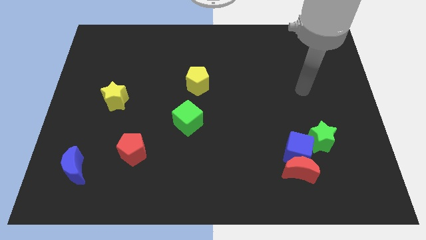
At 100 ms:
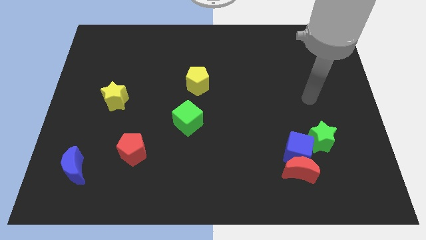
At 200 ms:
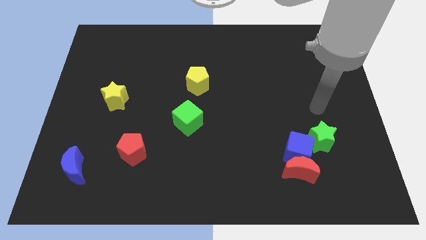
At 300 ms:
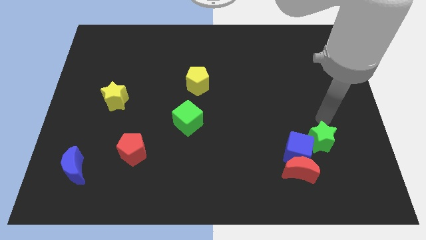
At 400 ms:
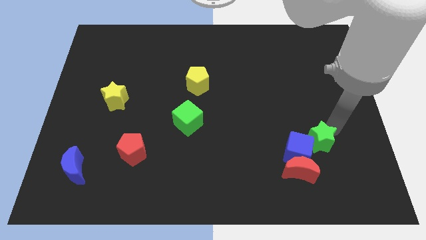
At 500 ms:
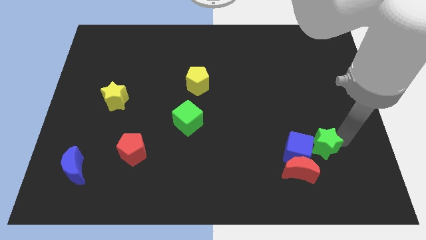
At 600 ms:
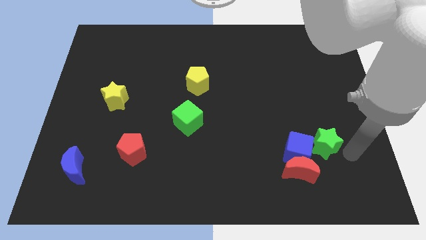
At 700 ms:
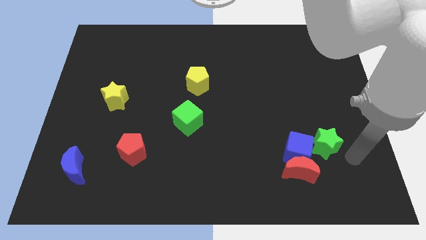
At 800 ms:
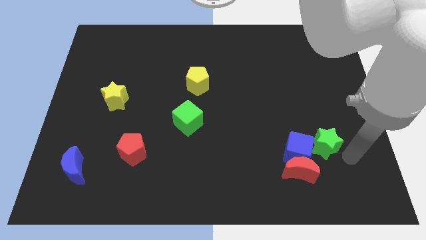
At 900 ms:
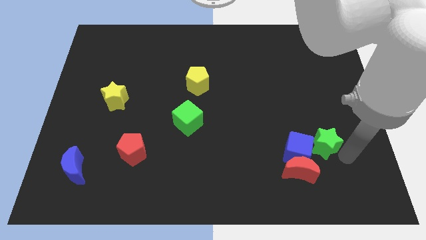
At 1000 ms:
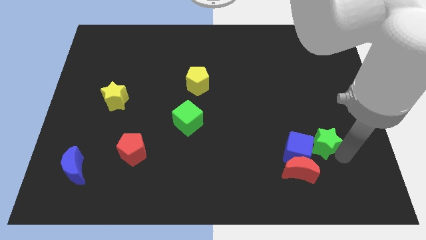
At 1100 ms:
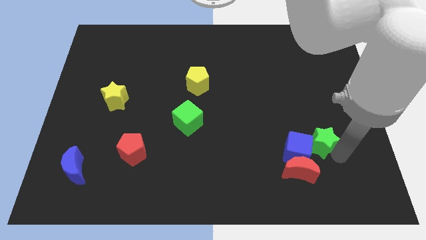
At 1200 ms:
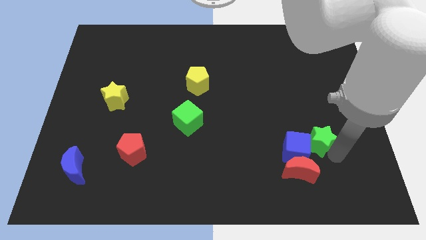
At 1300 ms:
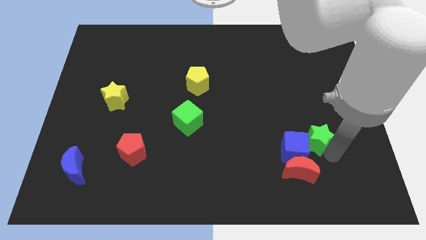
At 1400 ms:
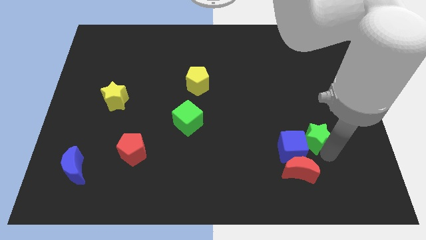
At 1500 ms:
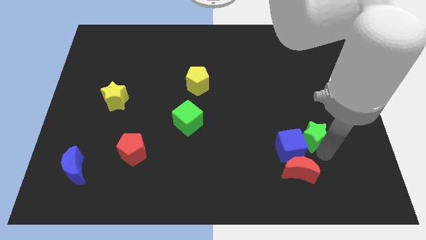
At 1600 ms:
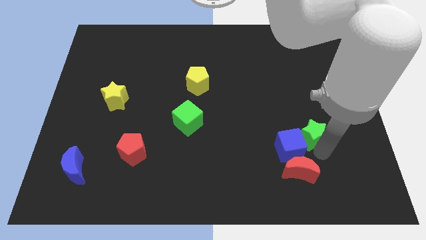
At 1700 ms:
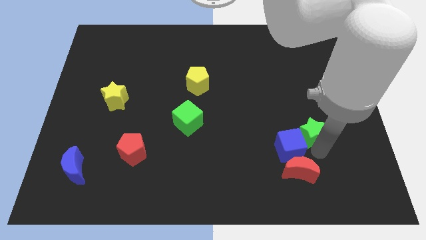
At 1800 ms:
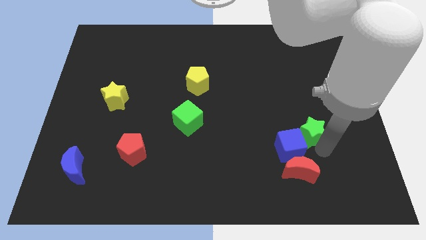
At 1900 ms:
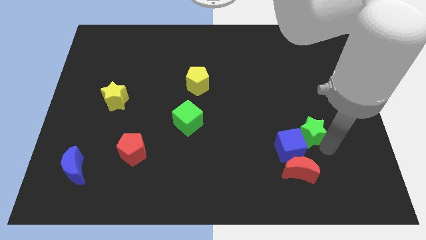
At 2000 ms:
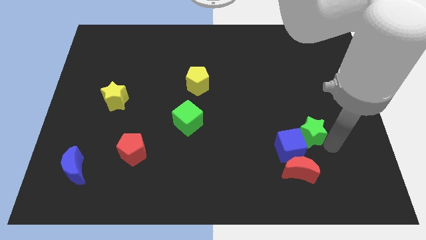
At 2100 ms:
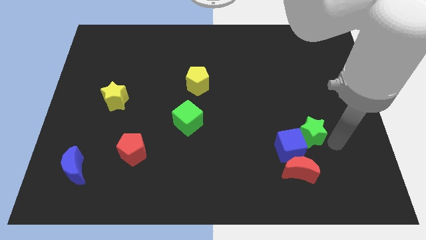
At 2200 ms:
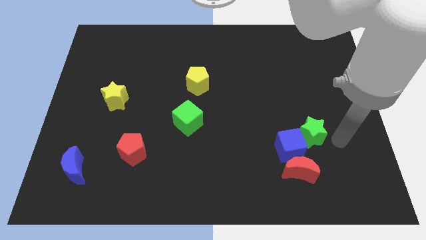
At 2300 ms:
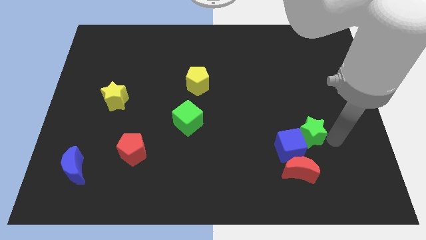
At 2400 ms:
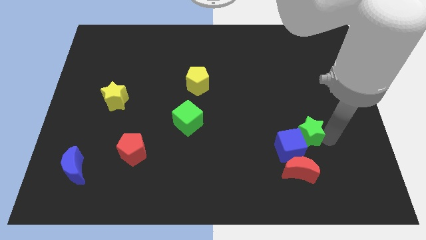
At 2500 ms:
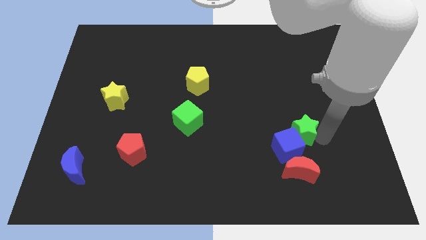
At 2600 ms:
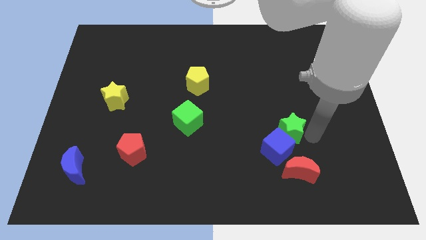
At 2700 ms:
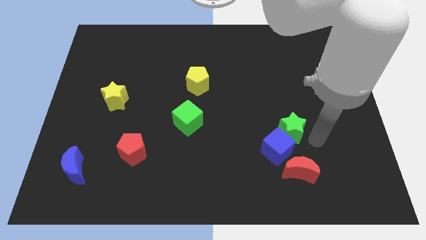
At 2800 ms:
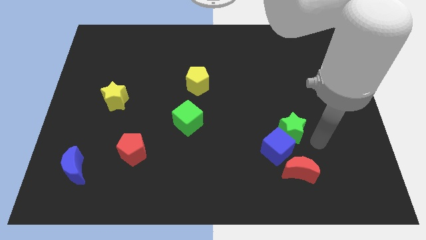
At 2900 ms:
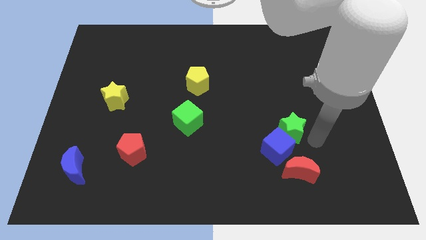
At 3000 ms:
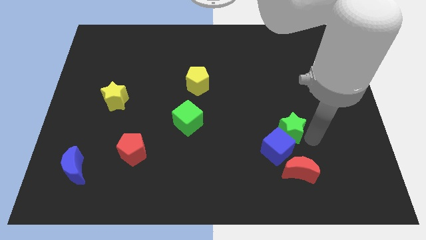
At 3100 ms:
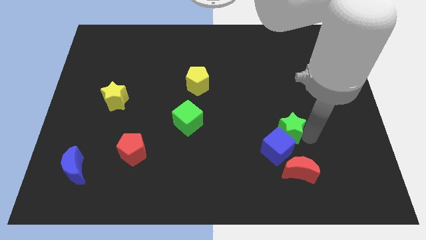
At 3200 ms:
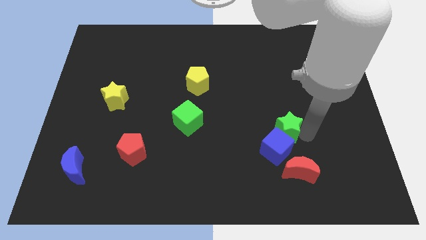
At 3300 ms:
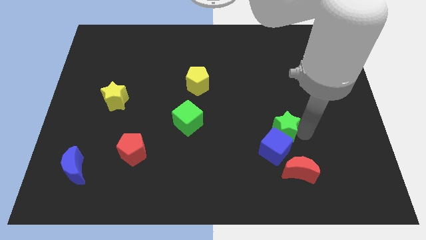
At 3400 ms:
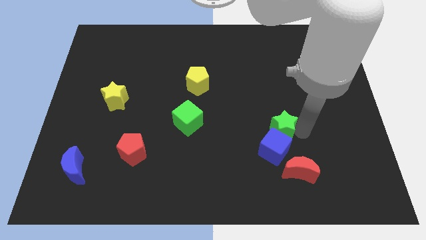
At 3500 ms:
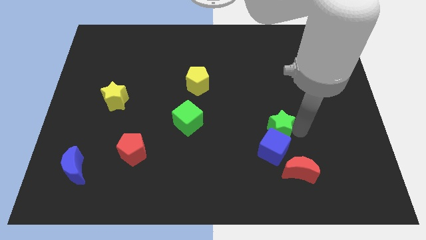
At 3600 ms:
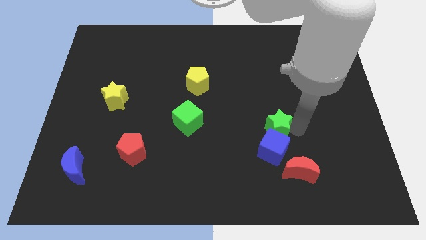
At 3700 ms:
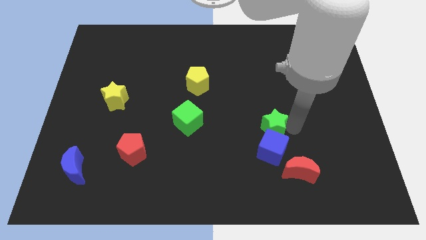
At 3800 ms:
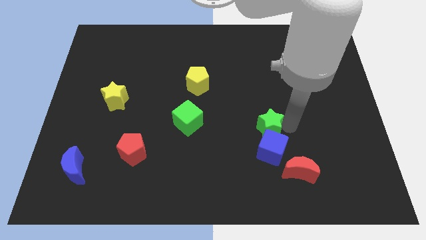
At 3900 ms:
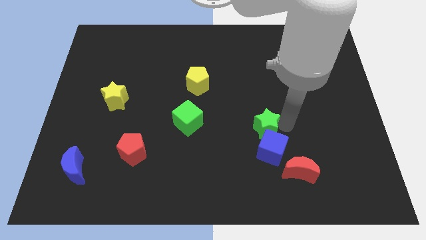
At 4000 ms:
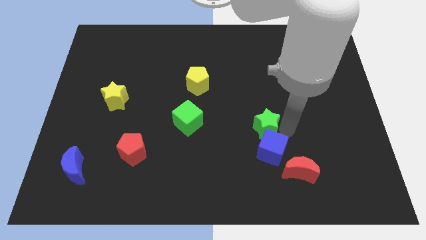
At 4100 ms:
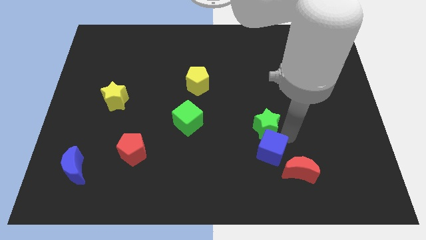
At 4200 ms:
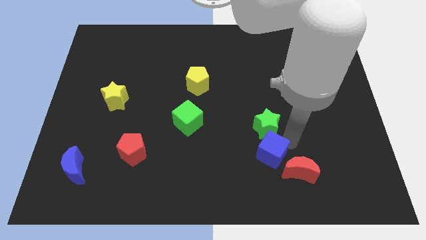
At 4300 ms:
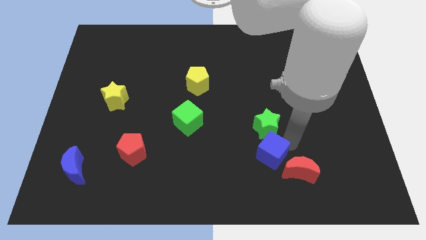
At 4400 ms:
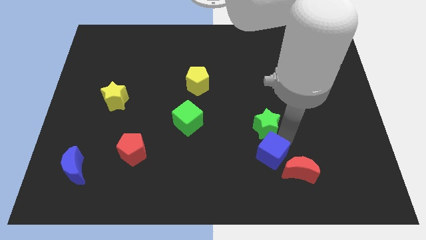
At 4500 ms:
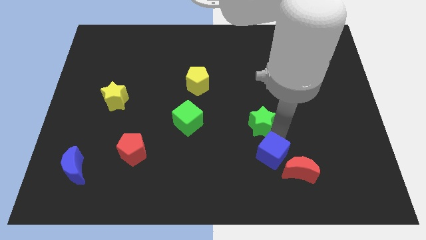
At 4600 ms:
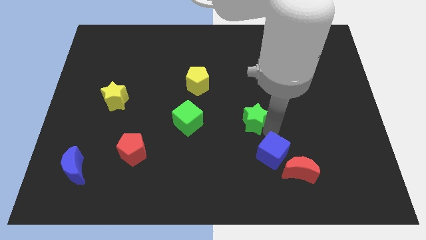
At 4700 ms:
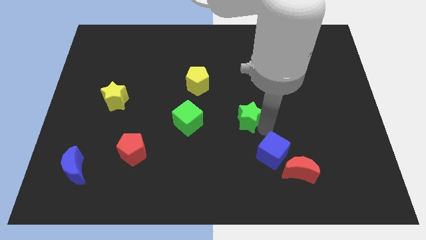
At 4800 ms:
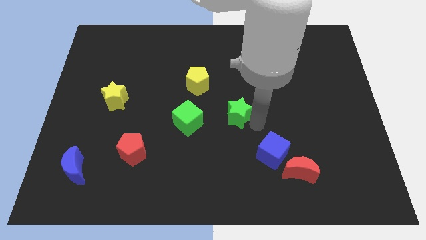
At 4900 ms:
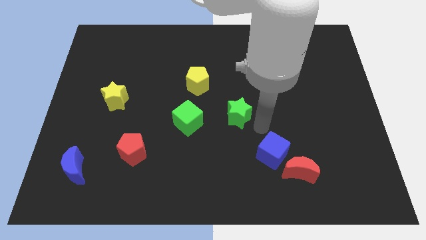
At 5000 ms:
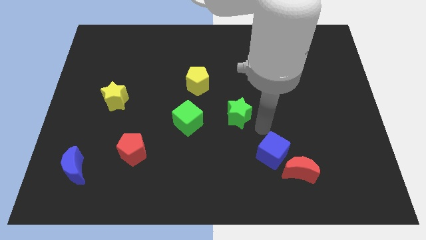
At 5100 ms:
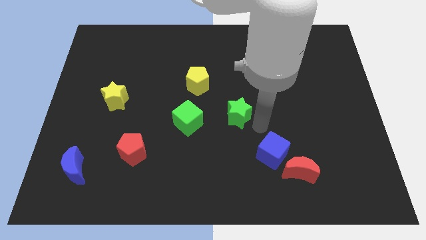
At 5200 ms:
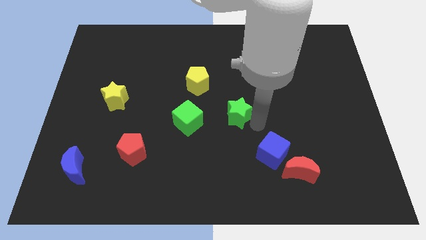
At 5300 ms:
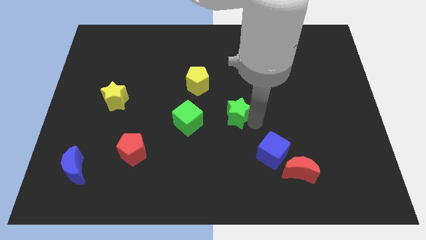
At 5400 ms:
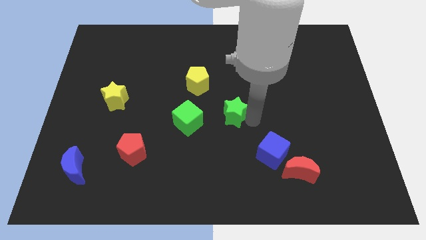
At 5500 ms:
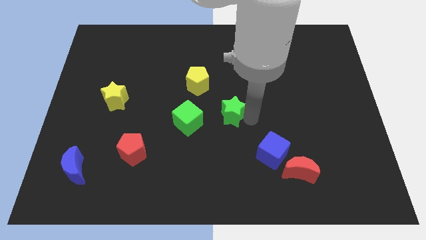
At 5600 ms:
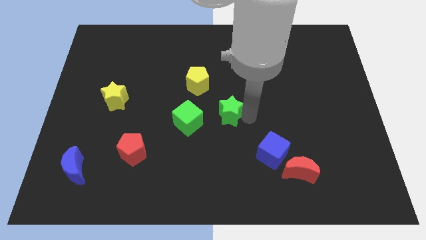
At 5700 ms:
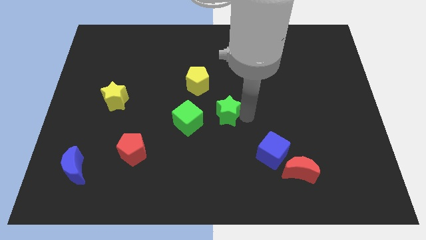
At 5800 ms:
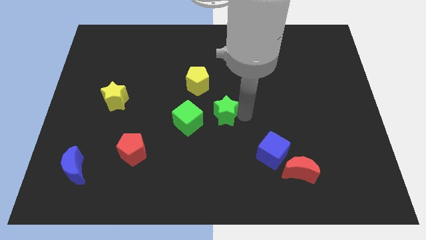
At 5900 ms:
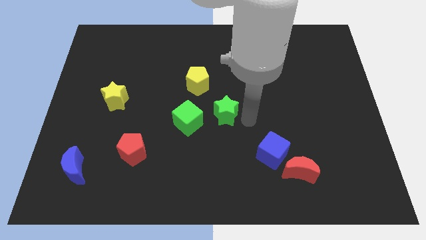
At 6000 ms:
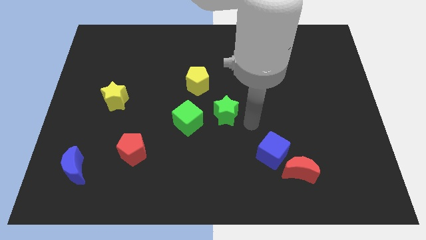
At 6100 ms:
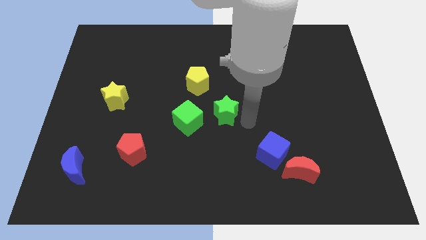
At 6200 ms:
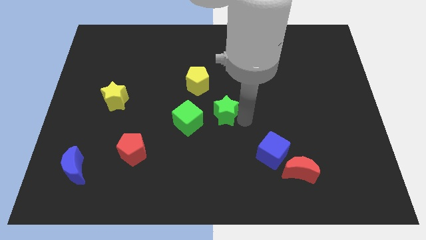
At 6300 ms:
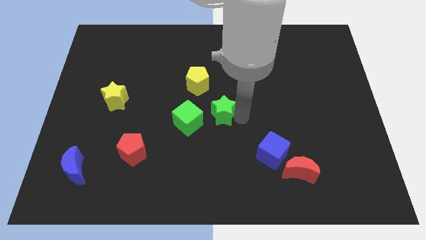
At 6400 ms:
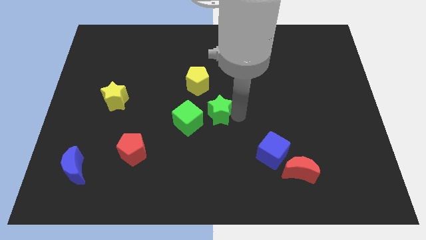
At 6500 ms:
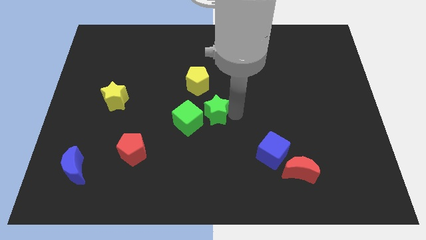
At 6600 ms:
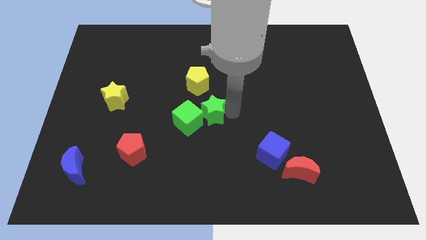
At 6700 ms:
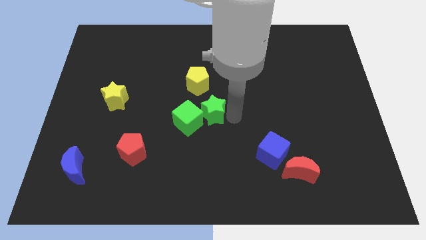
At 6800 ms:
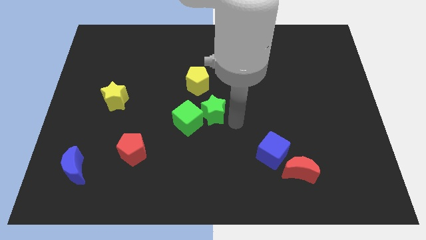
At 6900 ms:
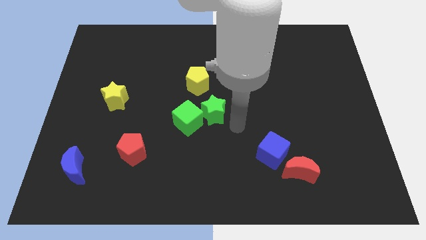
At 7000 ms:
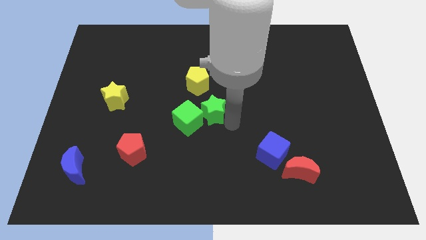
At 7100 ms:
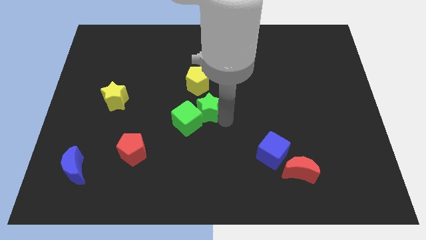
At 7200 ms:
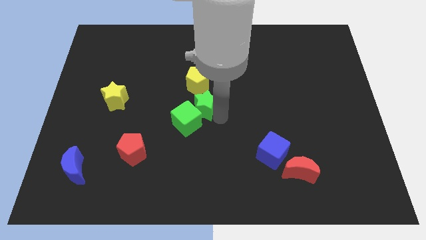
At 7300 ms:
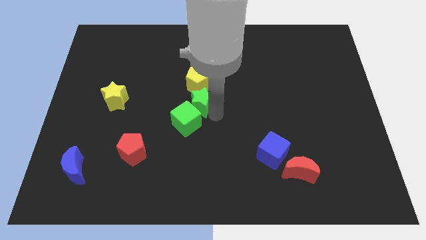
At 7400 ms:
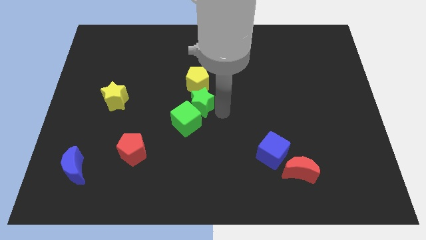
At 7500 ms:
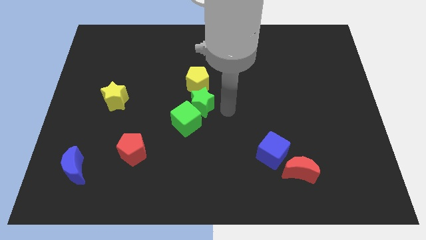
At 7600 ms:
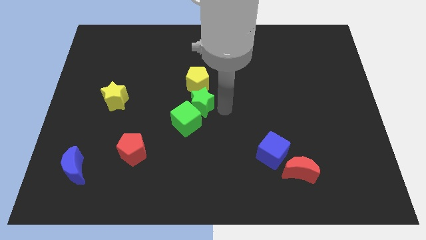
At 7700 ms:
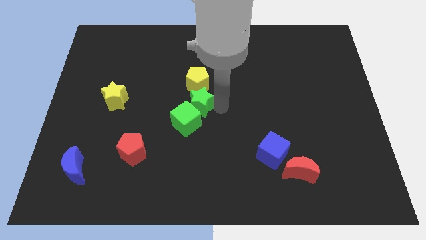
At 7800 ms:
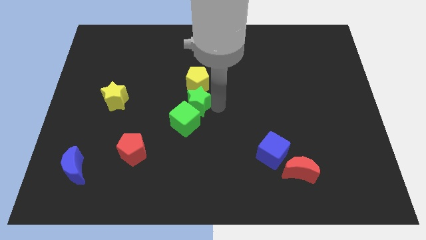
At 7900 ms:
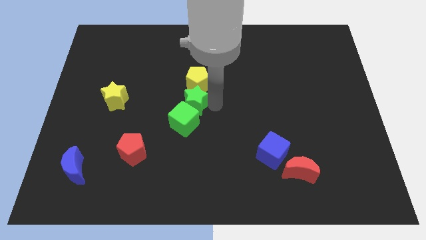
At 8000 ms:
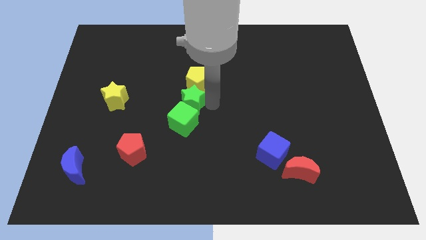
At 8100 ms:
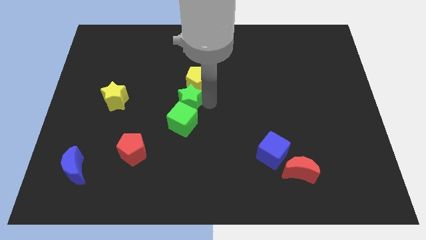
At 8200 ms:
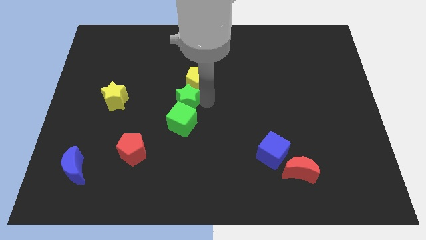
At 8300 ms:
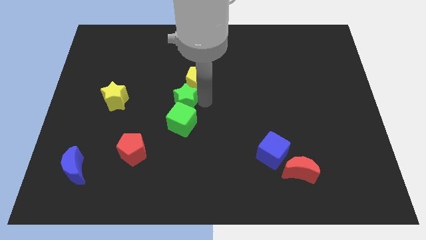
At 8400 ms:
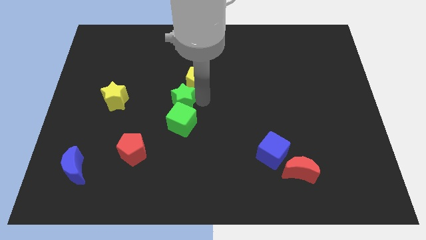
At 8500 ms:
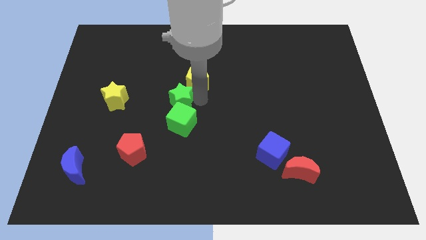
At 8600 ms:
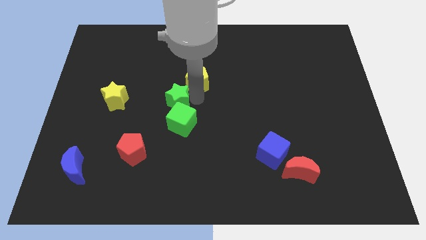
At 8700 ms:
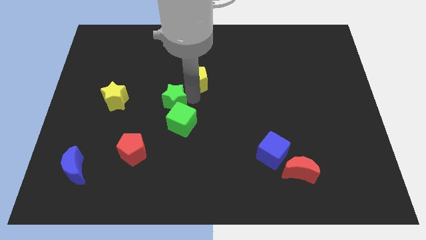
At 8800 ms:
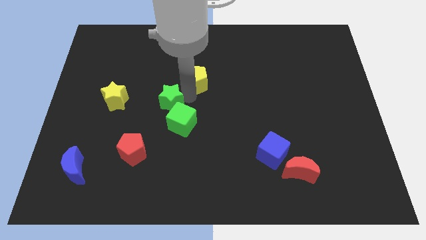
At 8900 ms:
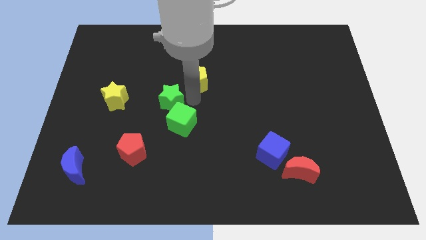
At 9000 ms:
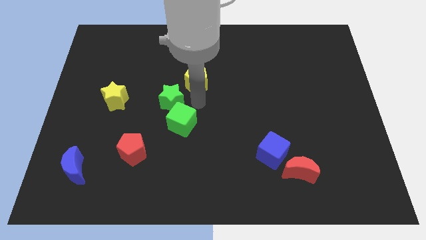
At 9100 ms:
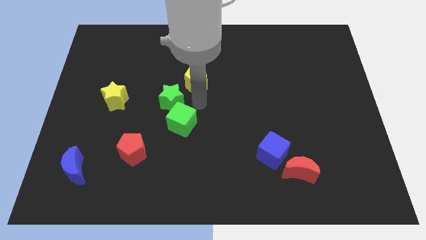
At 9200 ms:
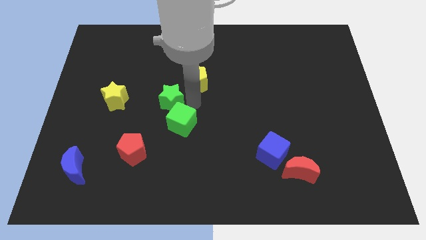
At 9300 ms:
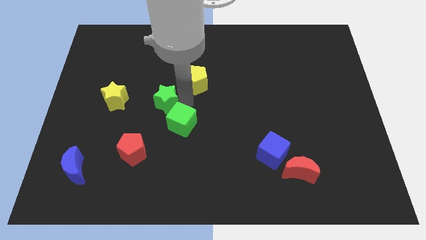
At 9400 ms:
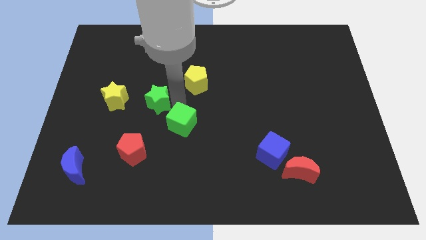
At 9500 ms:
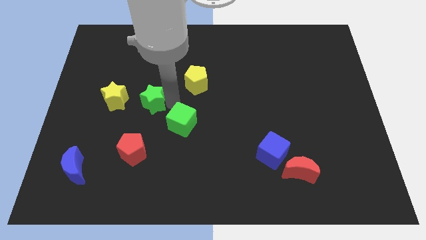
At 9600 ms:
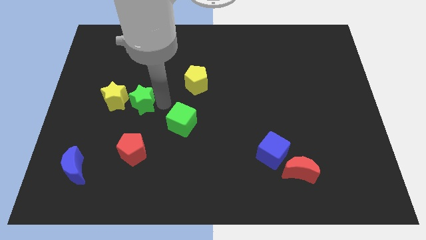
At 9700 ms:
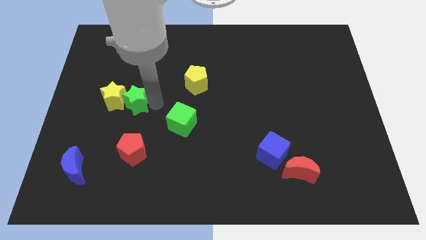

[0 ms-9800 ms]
slide the green star towards the yellow star
